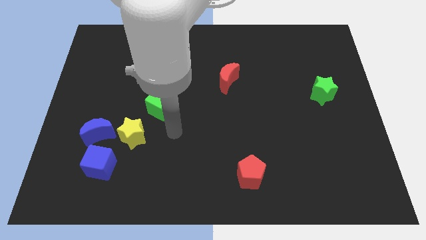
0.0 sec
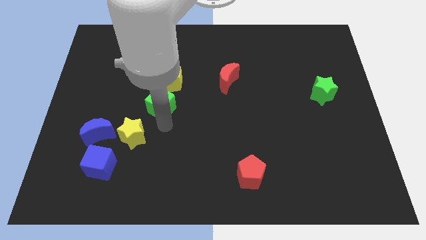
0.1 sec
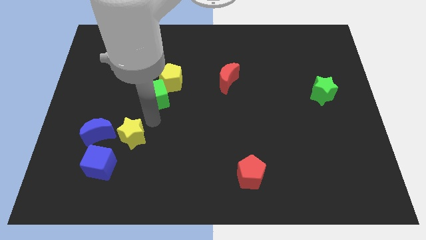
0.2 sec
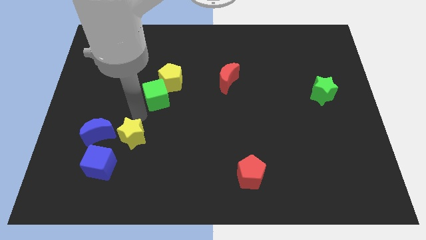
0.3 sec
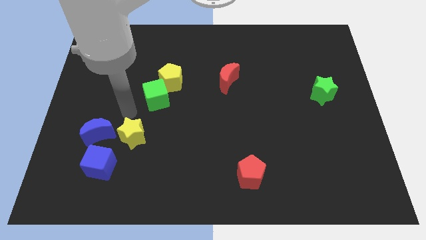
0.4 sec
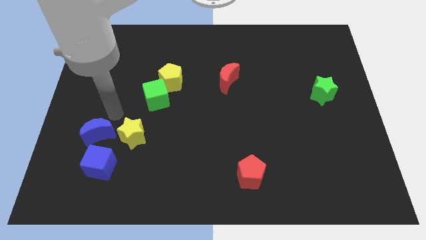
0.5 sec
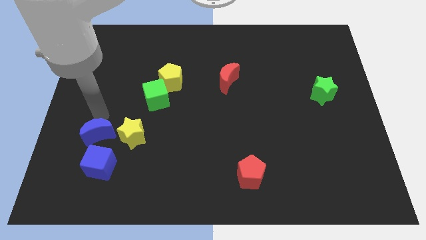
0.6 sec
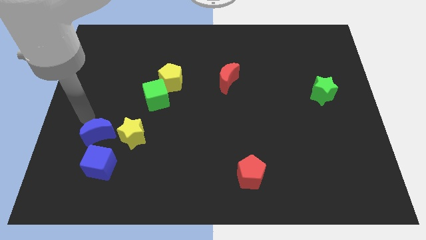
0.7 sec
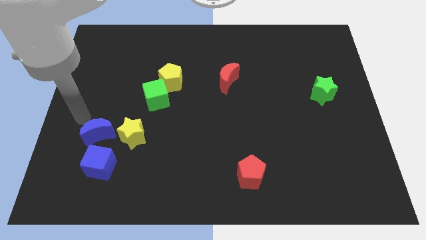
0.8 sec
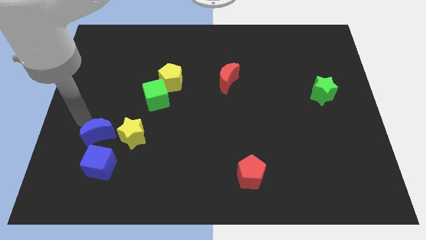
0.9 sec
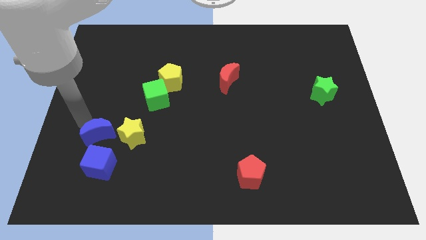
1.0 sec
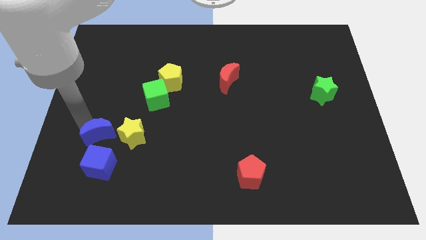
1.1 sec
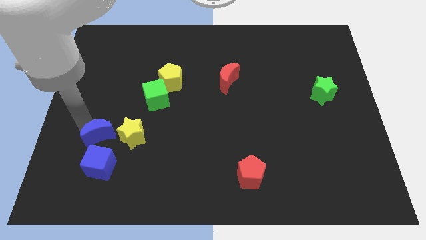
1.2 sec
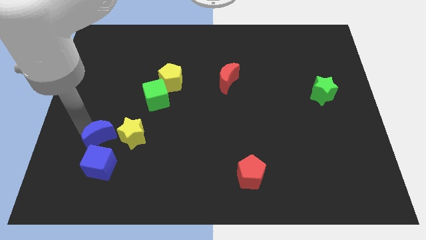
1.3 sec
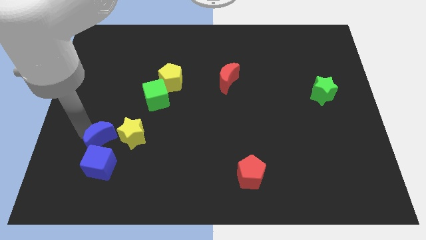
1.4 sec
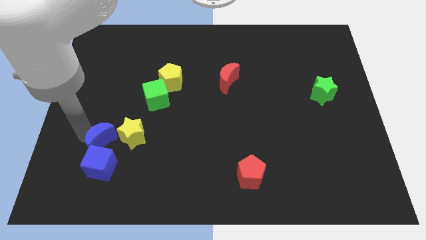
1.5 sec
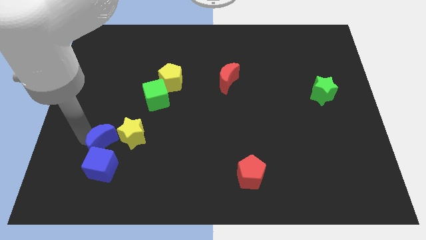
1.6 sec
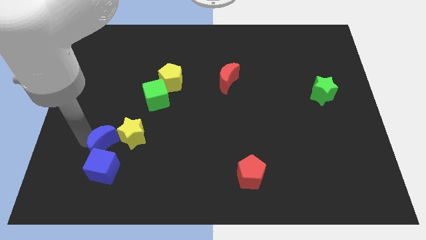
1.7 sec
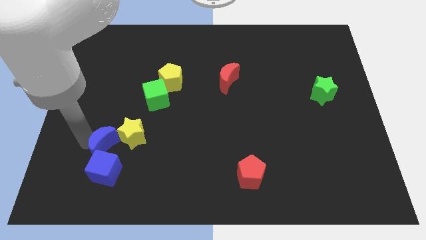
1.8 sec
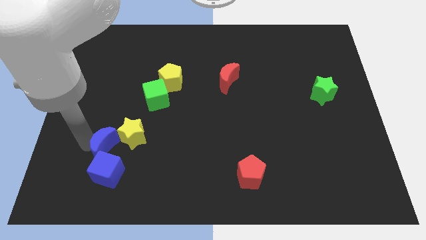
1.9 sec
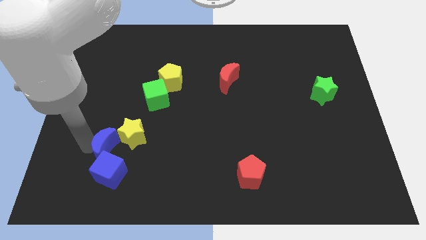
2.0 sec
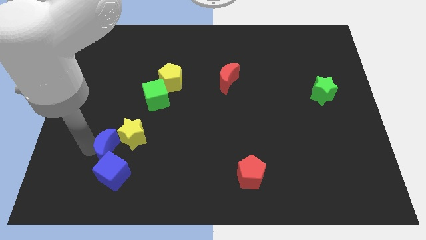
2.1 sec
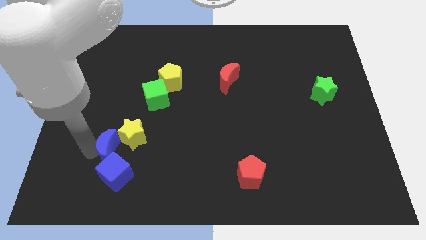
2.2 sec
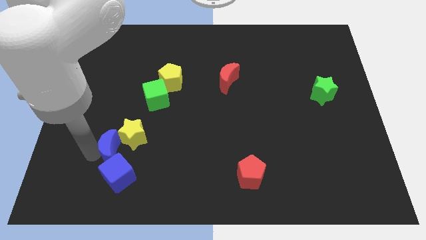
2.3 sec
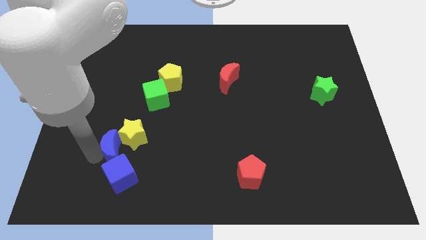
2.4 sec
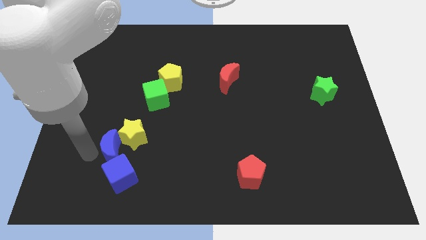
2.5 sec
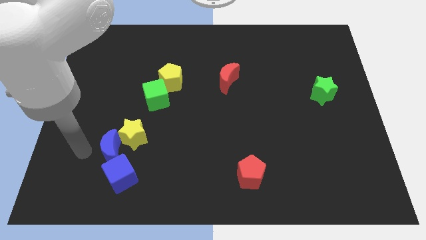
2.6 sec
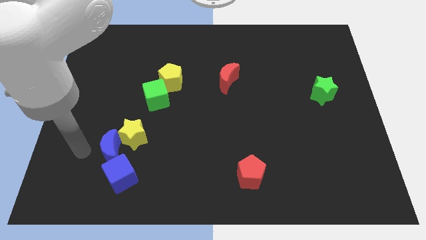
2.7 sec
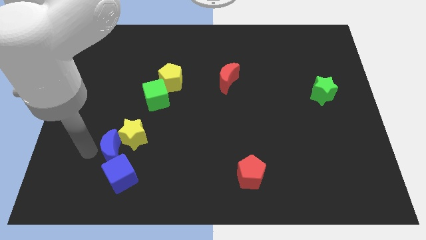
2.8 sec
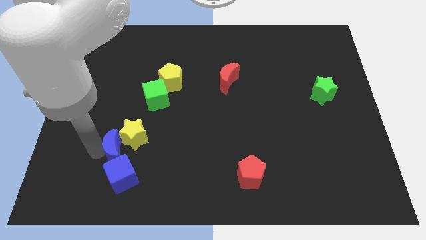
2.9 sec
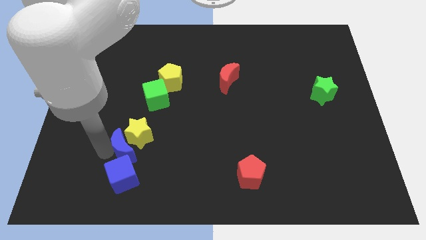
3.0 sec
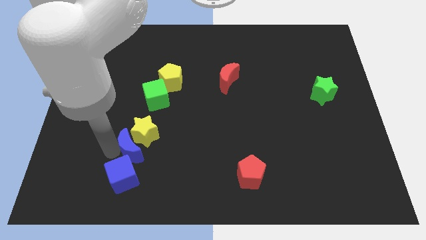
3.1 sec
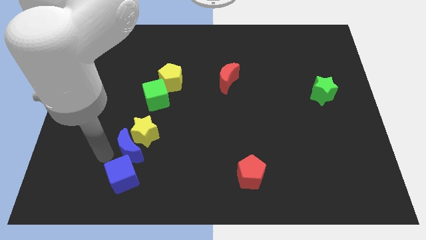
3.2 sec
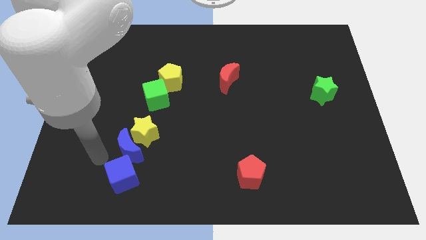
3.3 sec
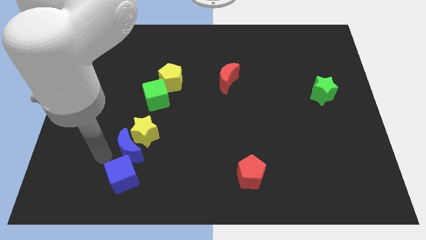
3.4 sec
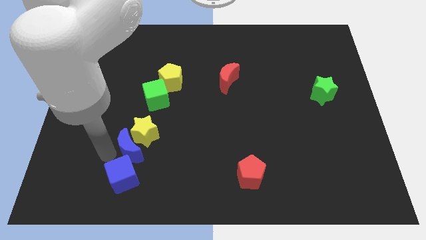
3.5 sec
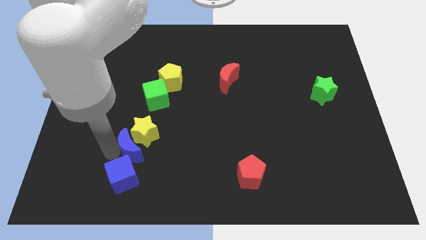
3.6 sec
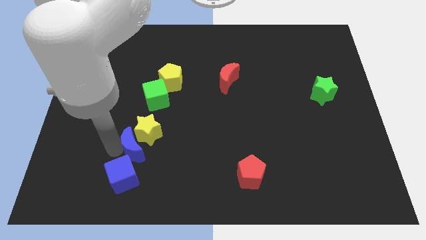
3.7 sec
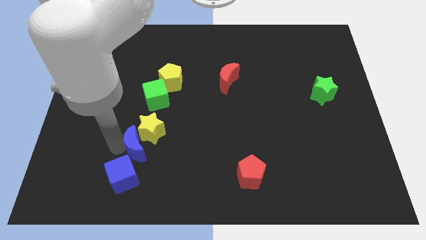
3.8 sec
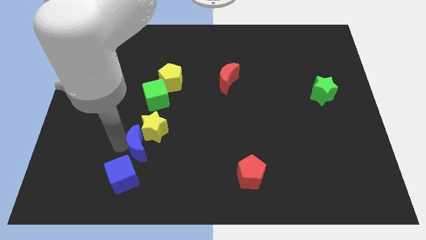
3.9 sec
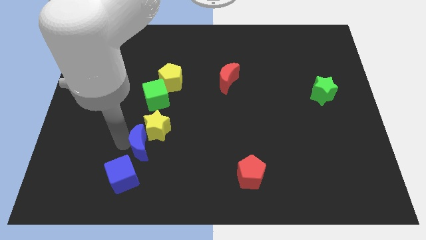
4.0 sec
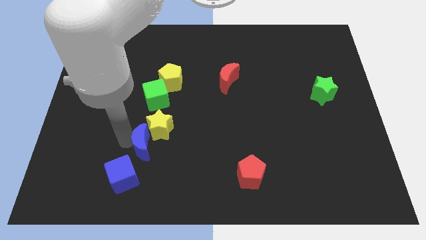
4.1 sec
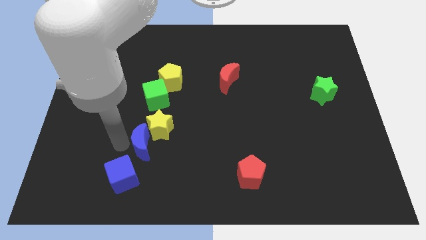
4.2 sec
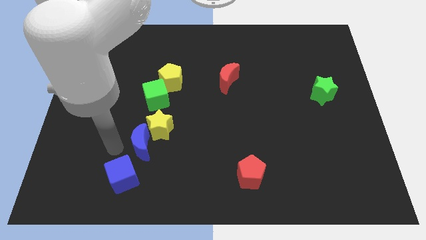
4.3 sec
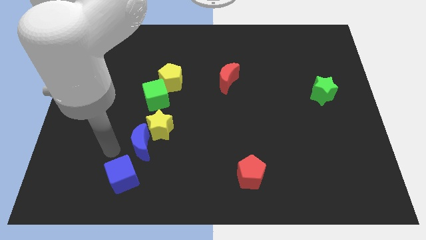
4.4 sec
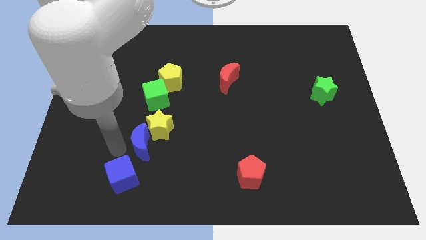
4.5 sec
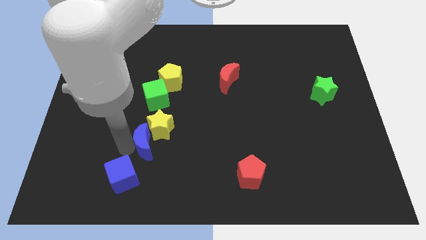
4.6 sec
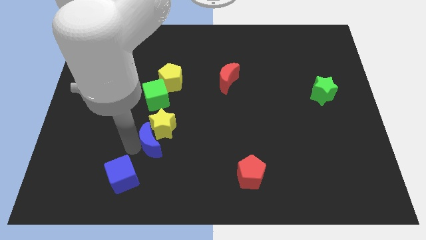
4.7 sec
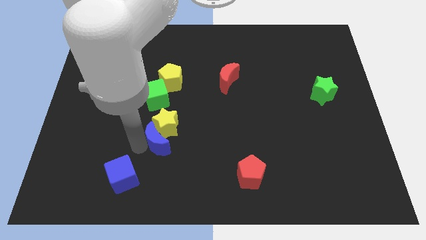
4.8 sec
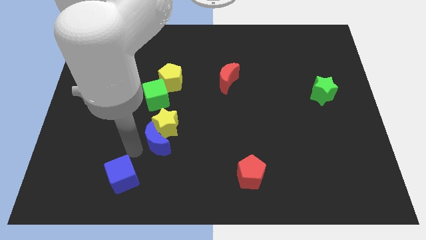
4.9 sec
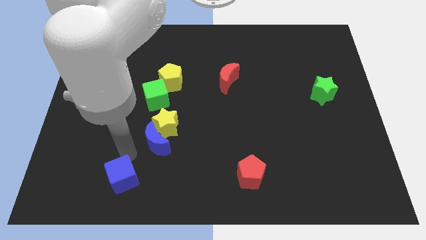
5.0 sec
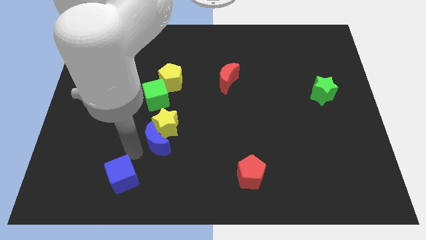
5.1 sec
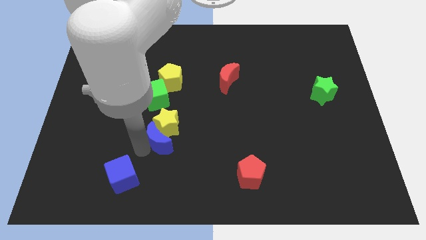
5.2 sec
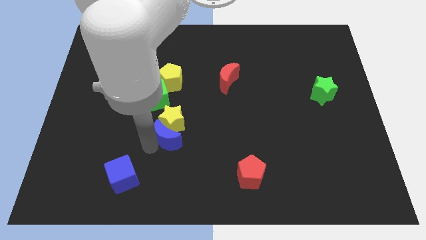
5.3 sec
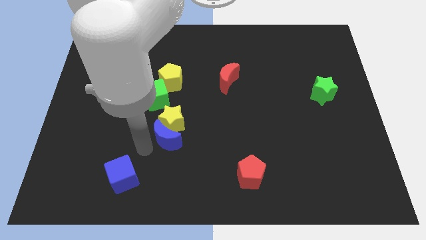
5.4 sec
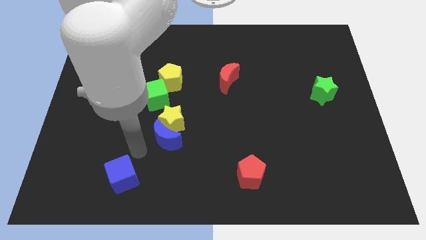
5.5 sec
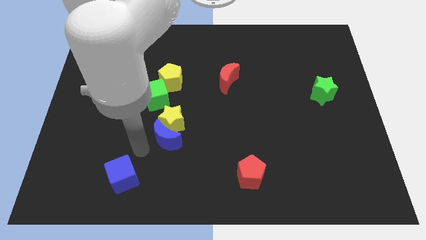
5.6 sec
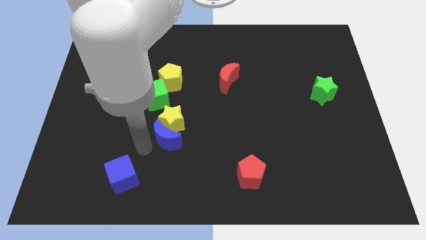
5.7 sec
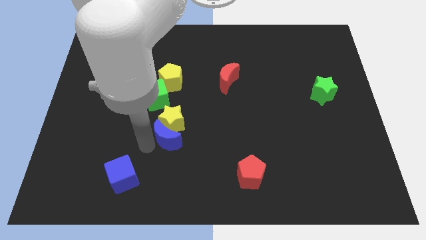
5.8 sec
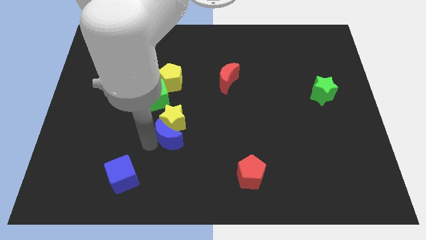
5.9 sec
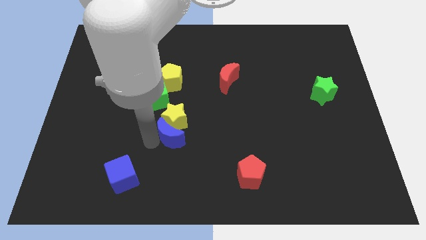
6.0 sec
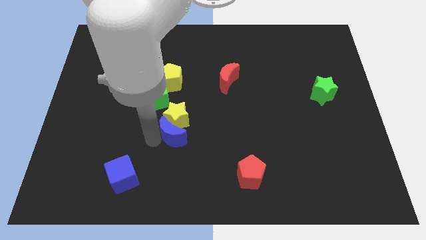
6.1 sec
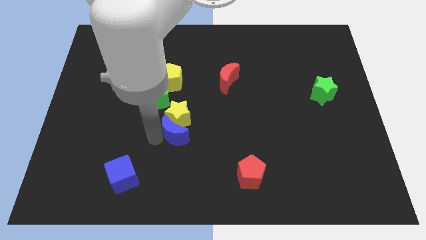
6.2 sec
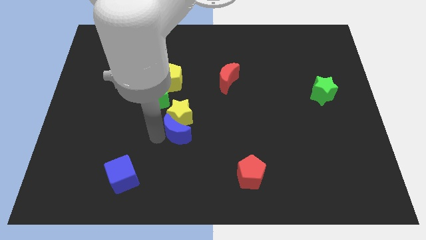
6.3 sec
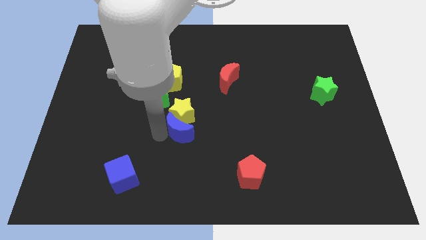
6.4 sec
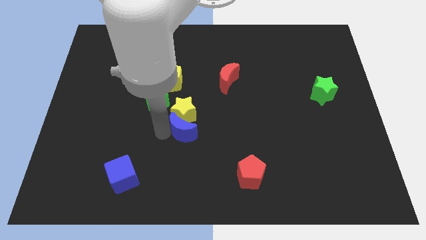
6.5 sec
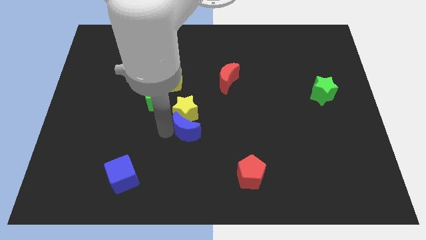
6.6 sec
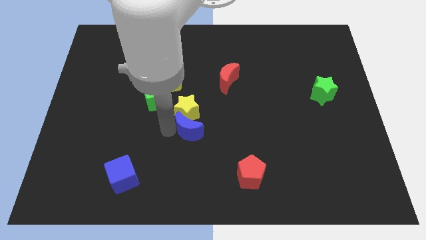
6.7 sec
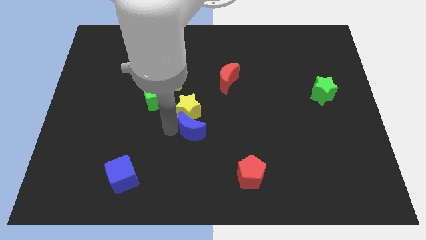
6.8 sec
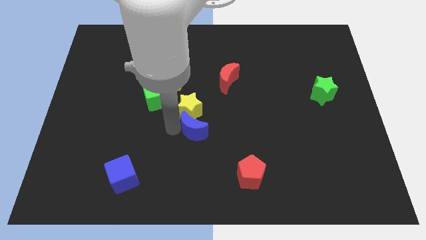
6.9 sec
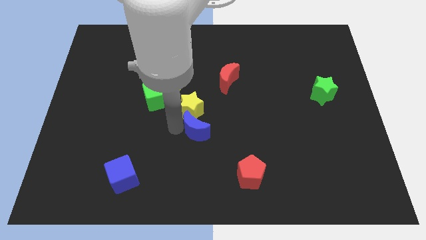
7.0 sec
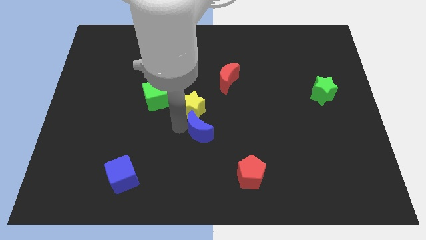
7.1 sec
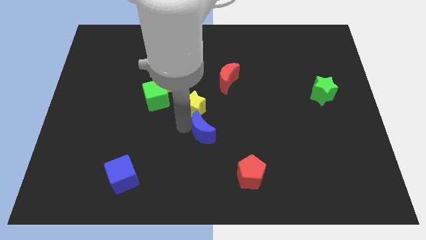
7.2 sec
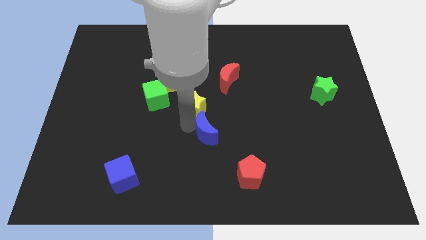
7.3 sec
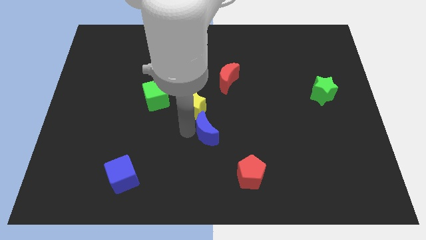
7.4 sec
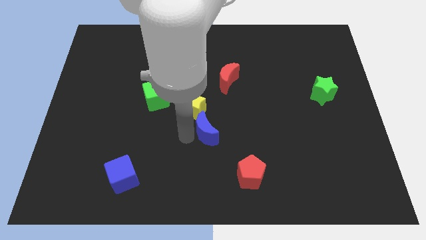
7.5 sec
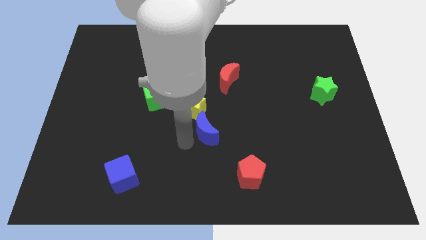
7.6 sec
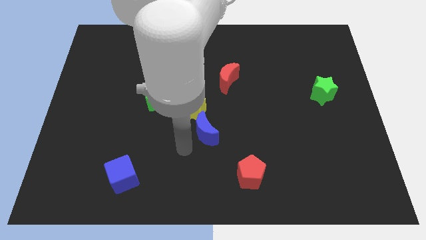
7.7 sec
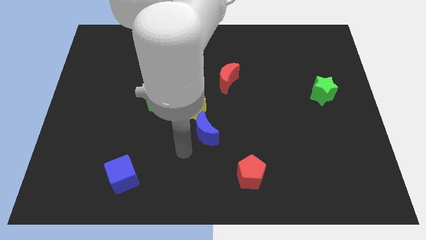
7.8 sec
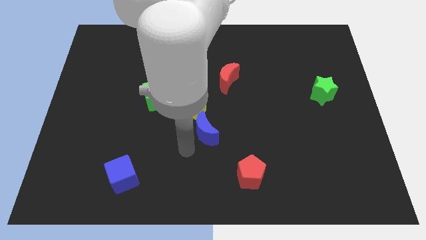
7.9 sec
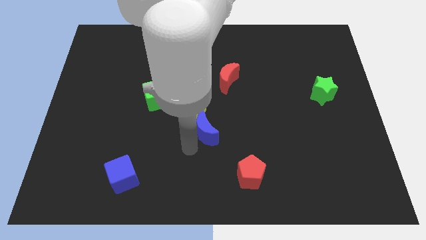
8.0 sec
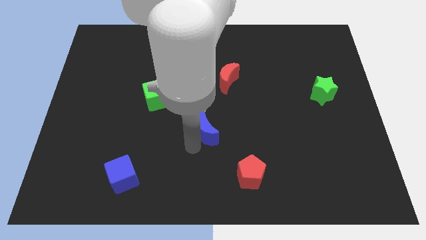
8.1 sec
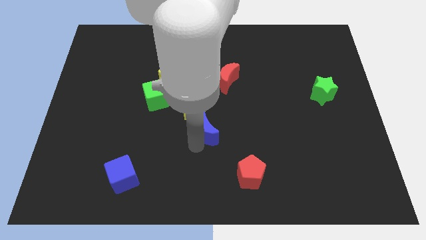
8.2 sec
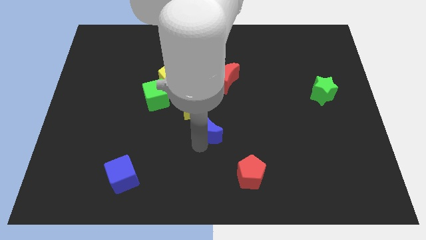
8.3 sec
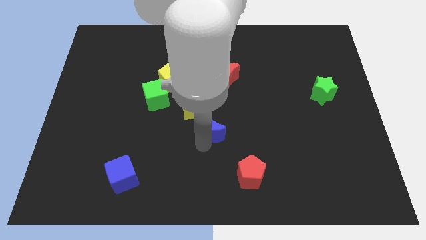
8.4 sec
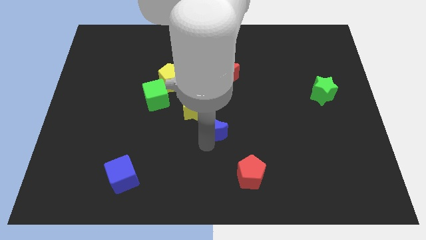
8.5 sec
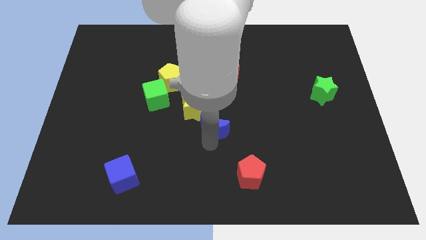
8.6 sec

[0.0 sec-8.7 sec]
push the blue moon to the bottom of the red moon
